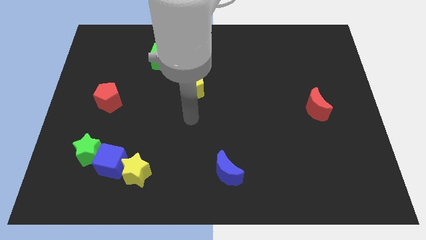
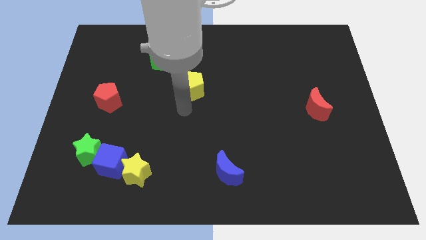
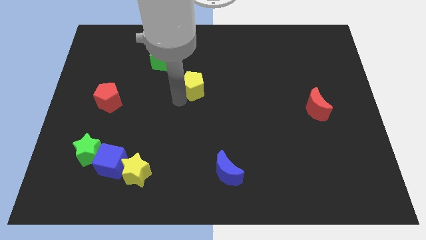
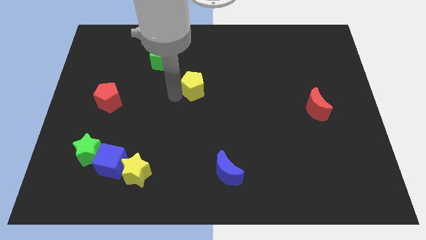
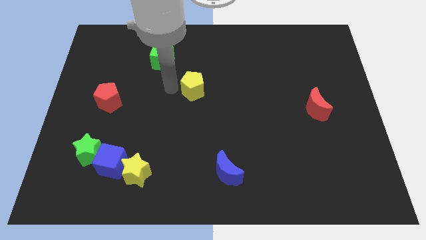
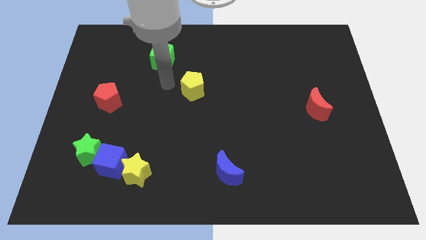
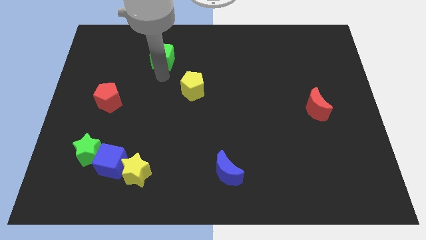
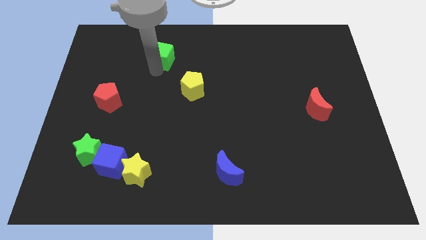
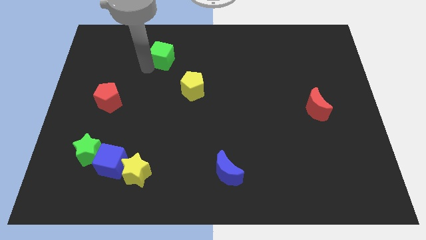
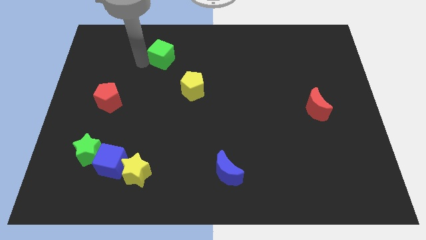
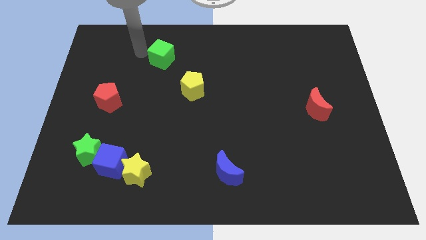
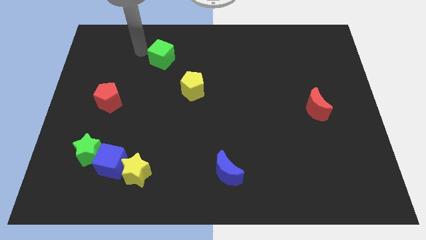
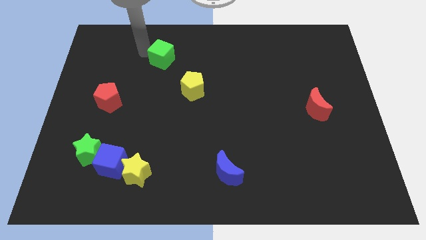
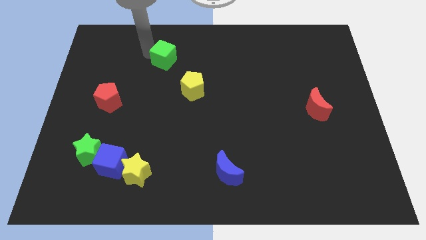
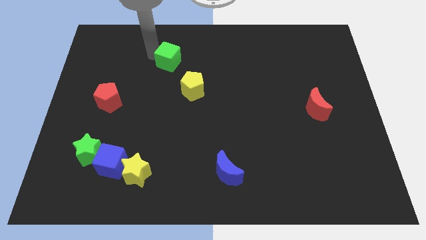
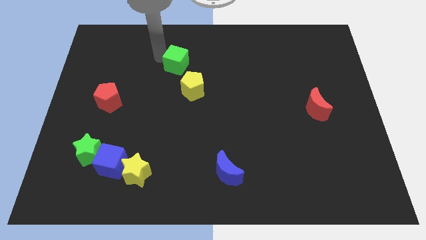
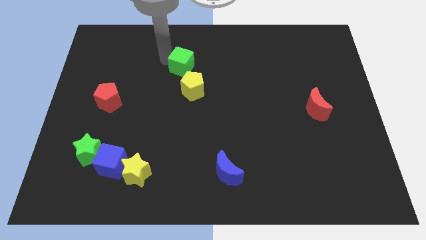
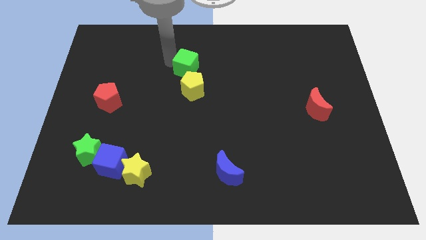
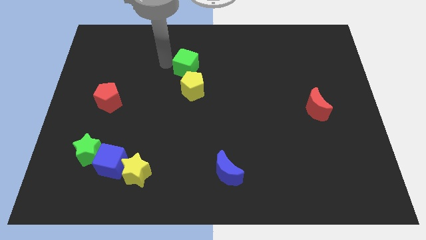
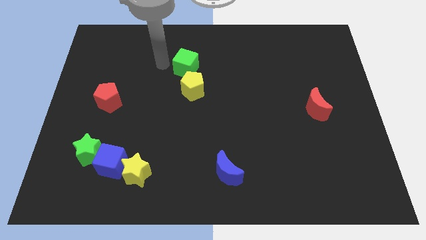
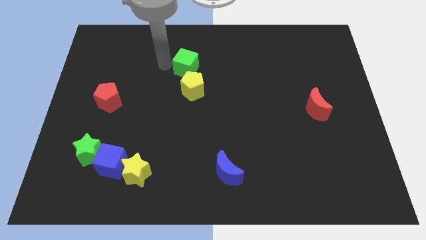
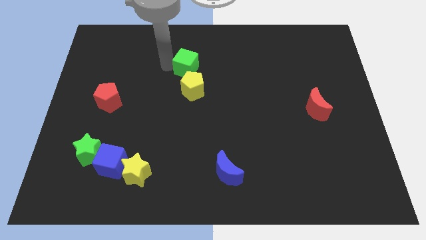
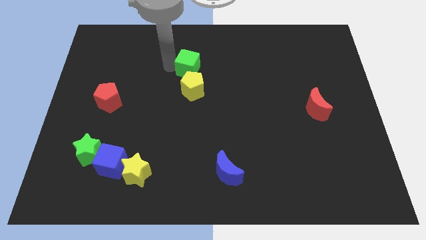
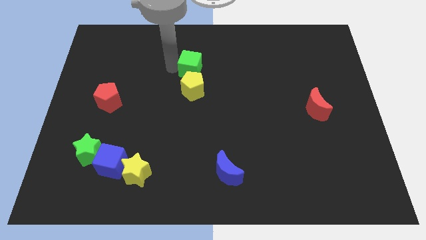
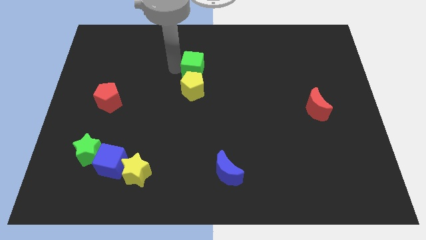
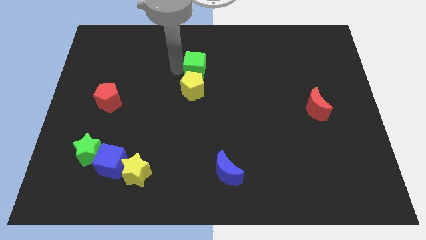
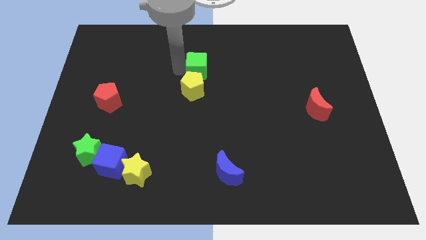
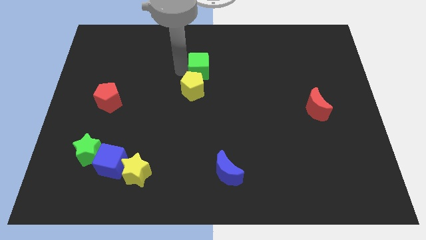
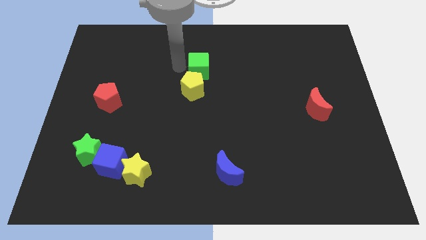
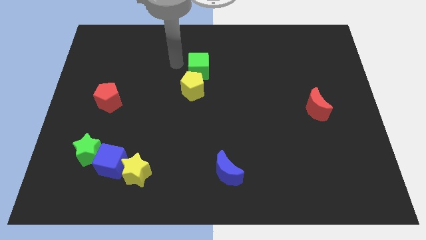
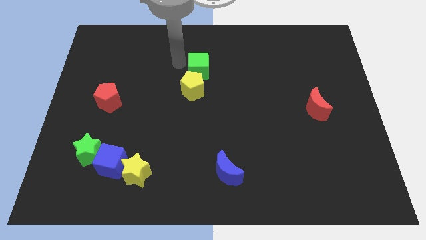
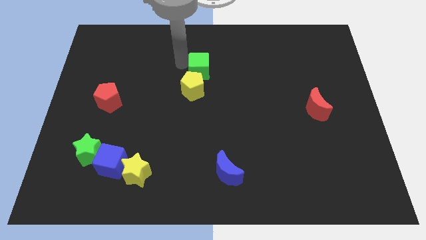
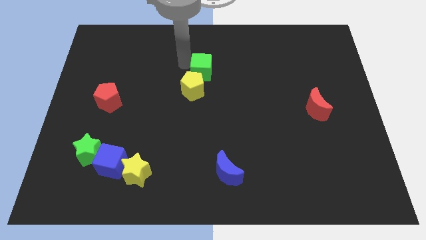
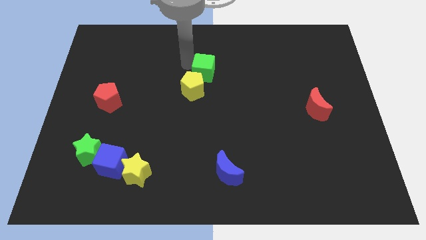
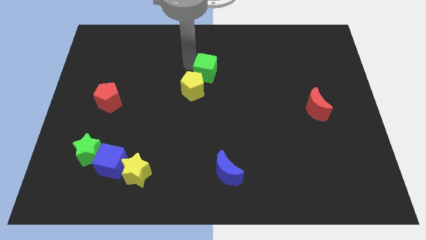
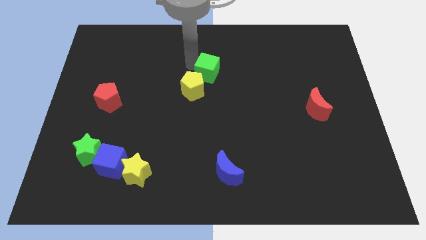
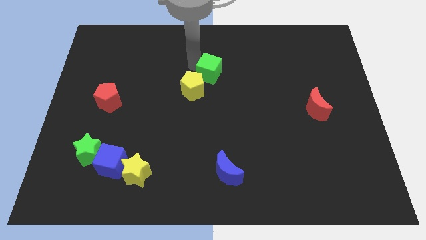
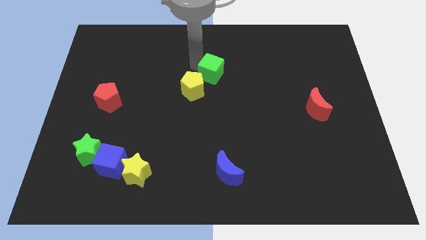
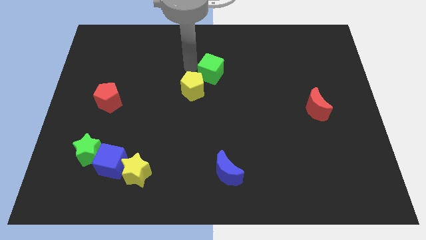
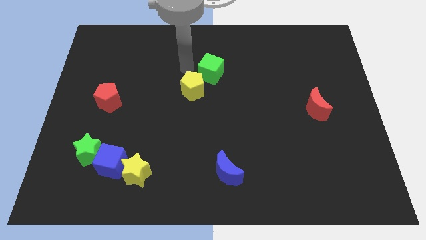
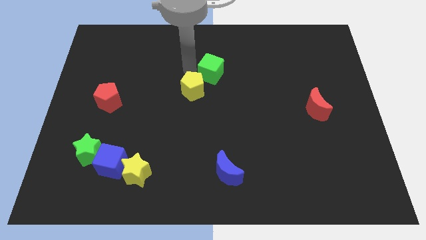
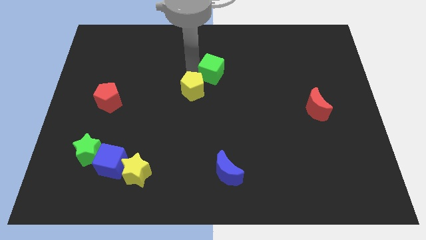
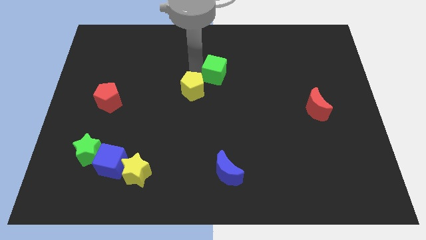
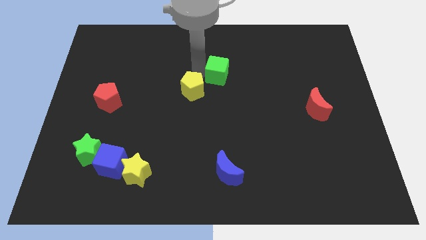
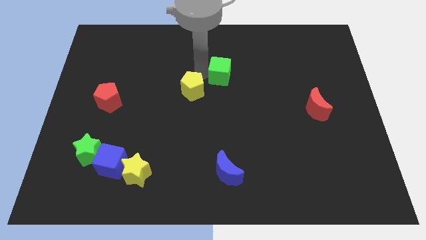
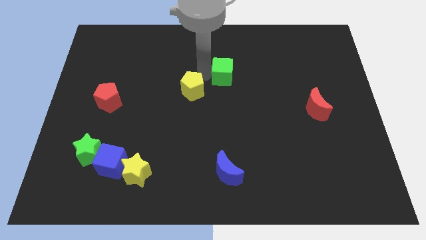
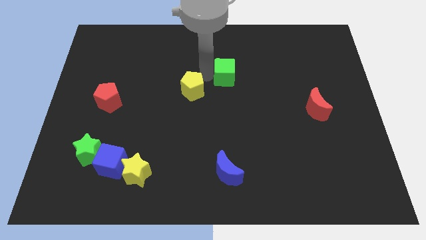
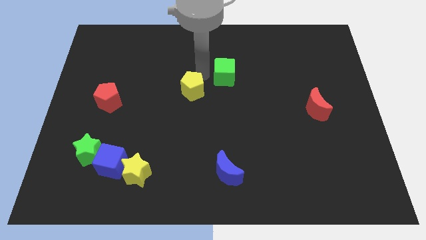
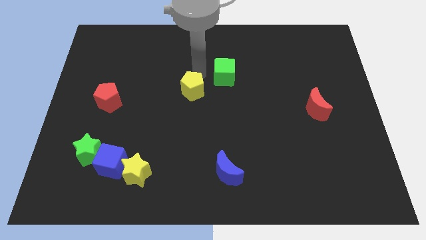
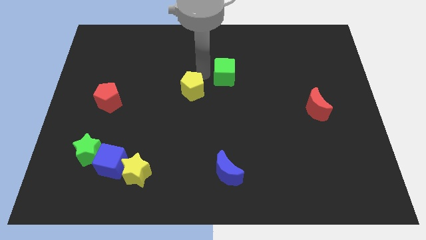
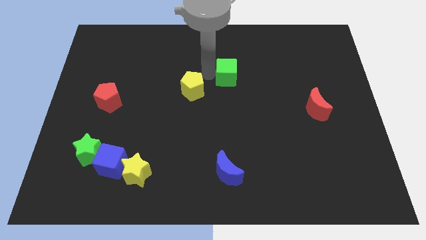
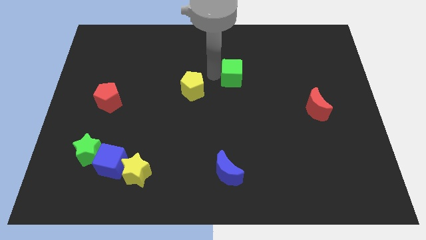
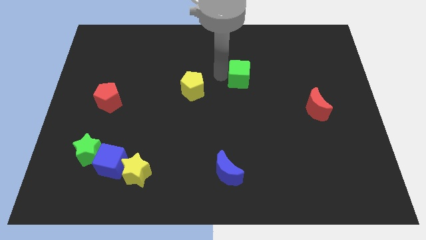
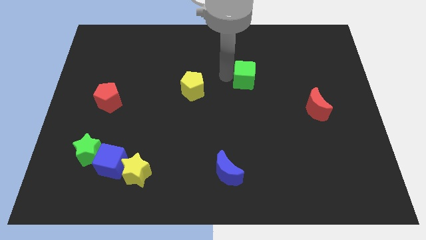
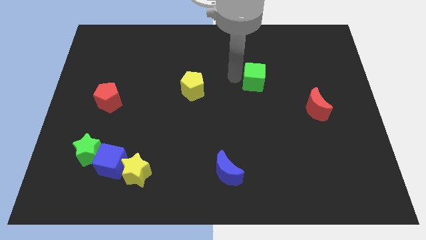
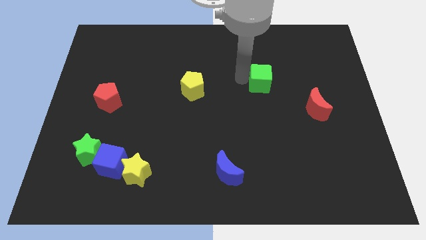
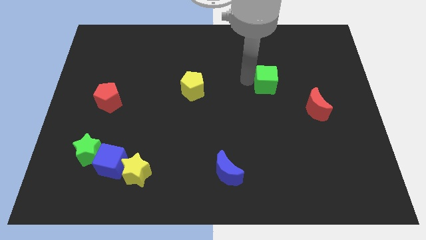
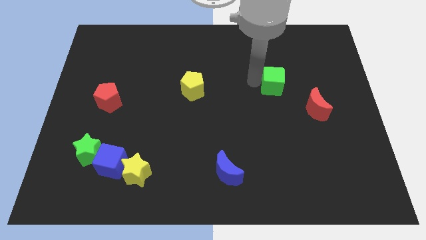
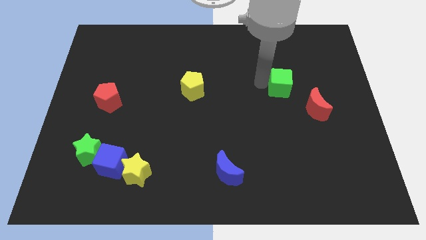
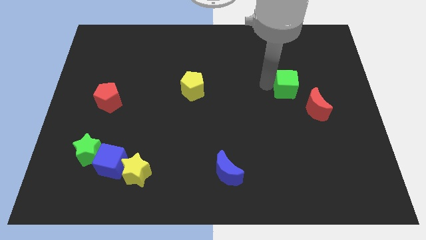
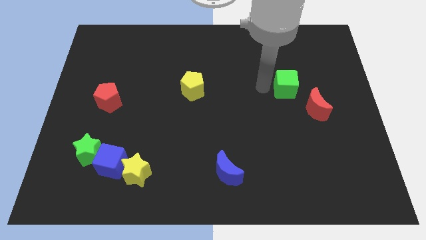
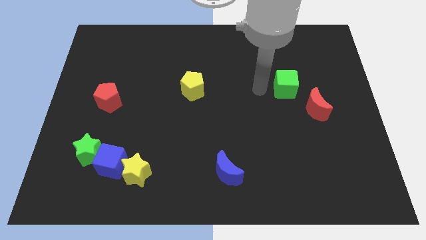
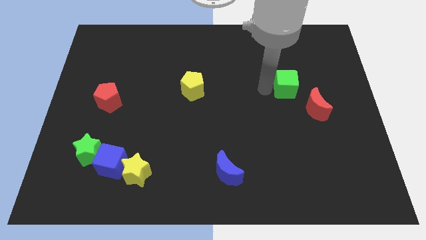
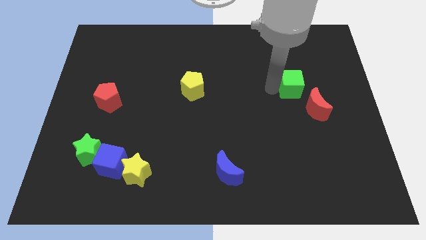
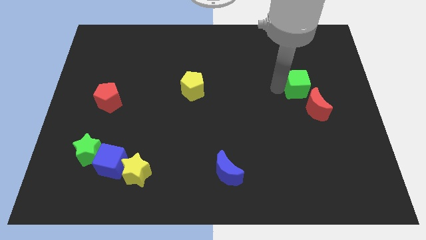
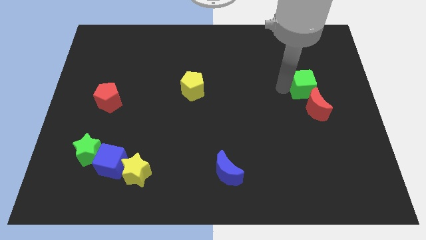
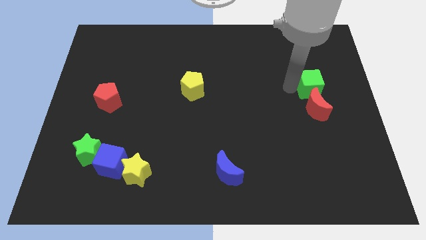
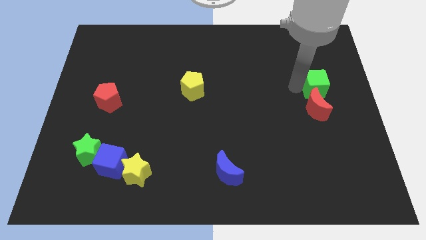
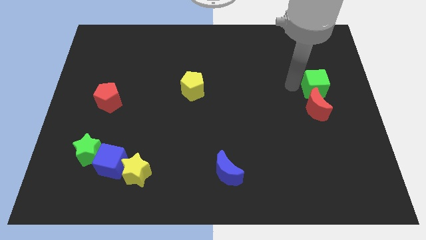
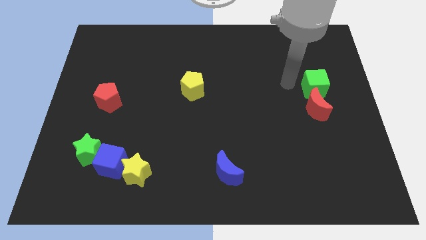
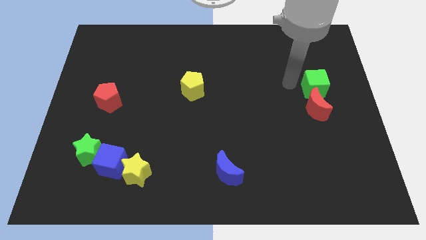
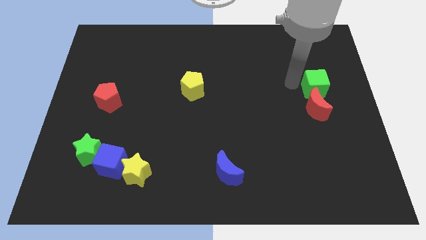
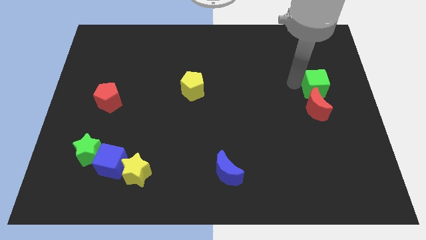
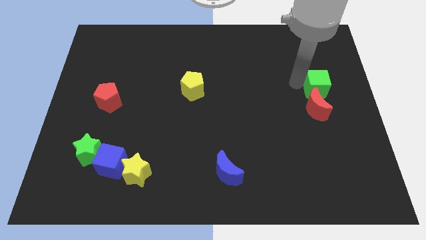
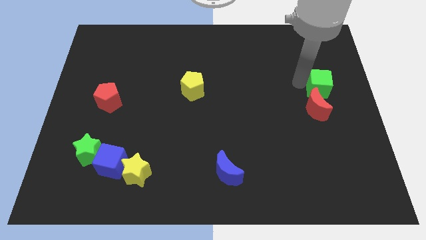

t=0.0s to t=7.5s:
move the green cube to the right side of the board

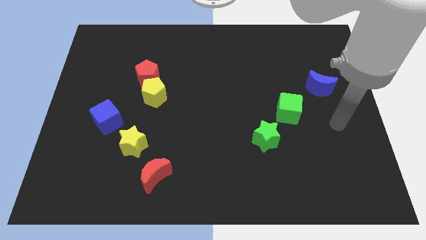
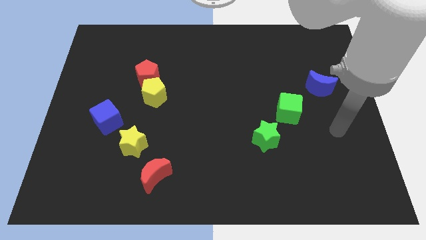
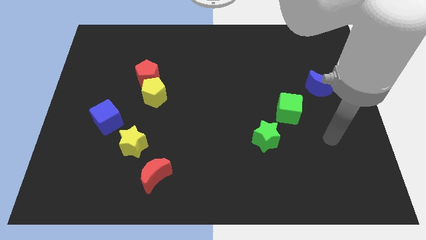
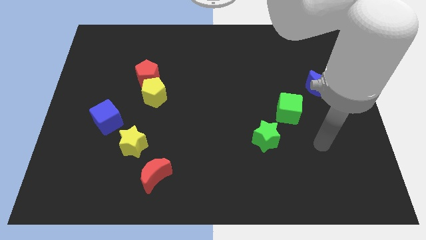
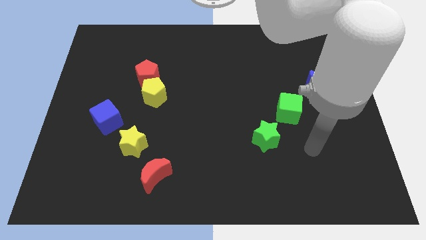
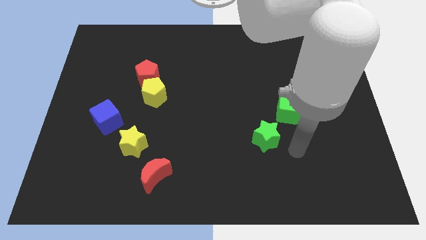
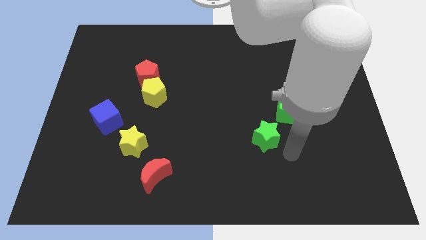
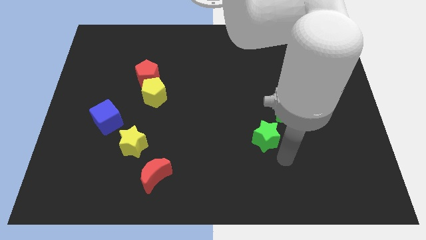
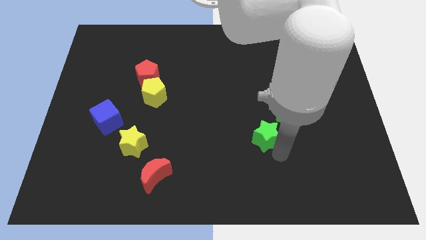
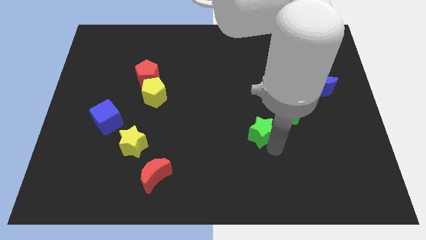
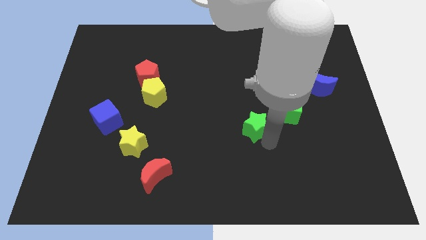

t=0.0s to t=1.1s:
move the green star to the center of the board
